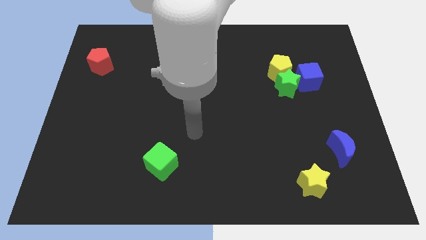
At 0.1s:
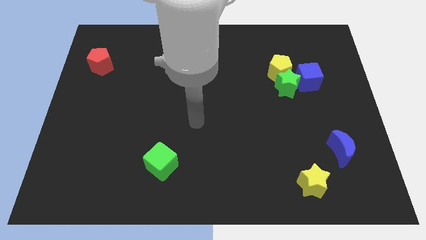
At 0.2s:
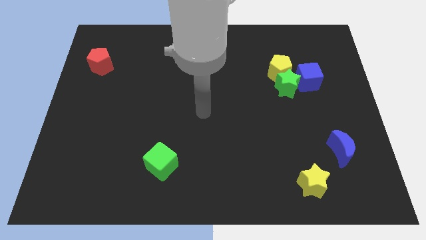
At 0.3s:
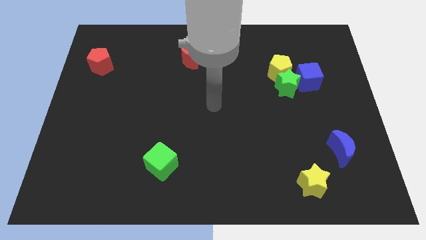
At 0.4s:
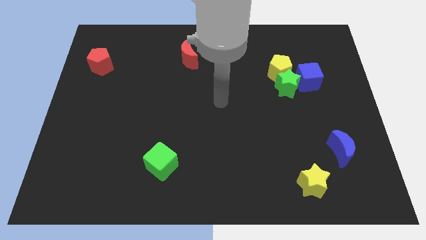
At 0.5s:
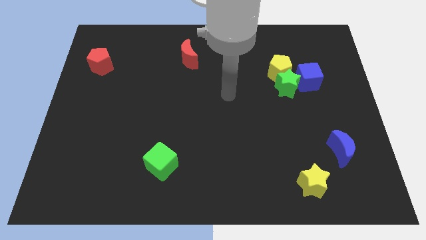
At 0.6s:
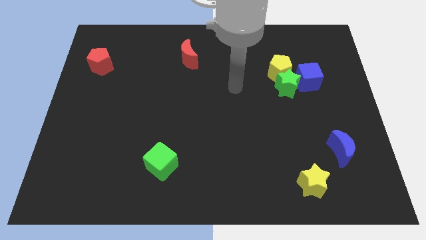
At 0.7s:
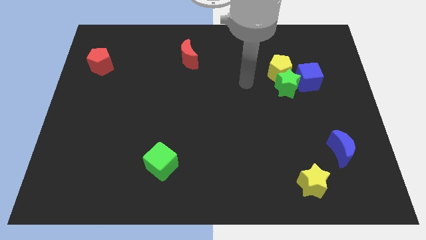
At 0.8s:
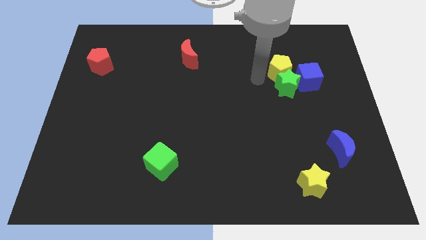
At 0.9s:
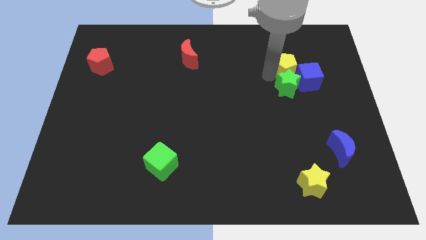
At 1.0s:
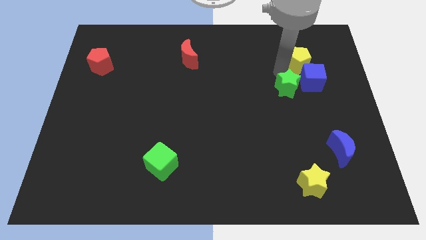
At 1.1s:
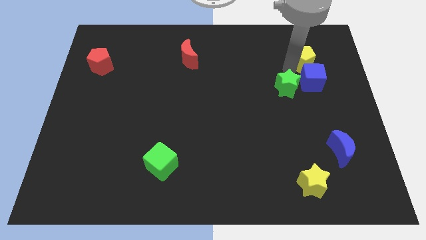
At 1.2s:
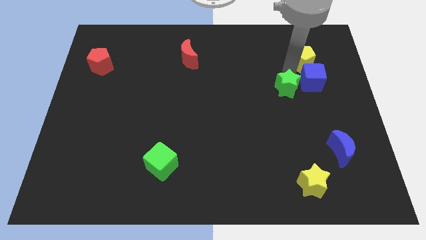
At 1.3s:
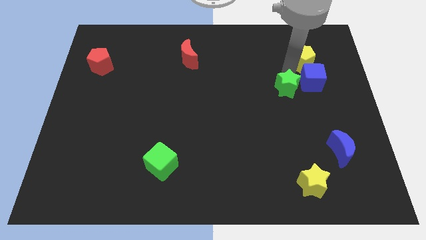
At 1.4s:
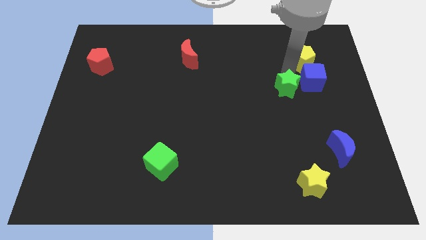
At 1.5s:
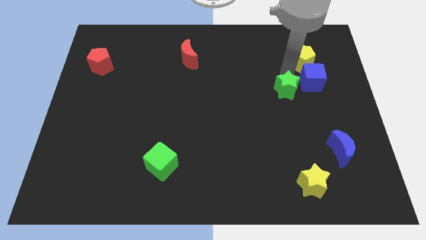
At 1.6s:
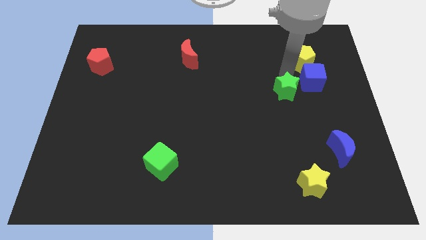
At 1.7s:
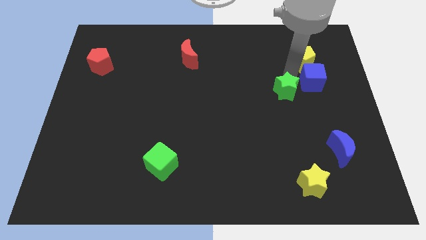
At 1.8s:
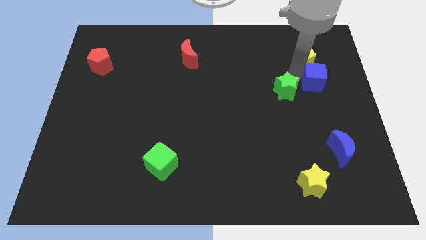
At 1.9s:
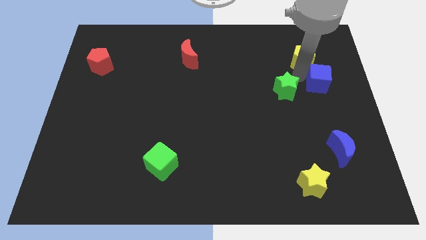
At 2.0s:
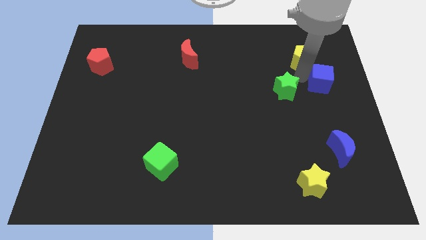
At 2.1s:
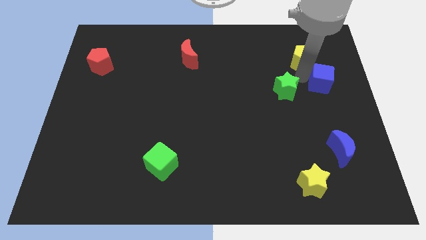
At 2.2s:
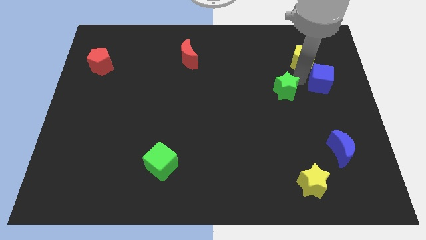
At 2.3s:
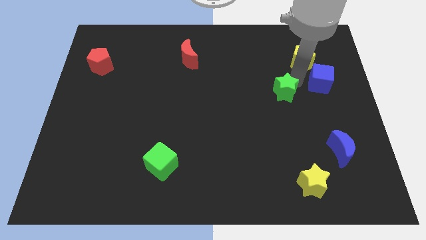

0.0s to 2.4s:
pull the green star apart from the yellow pentagon and blue cube

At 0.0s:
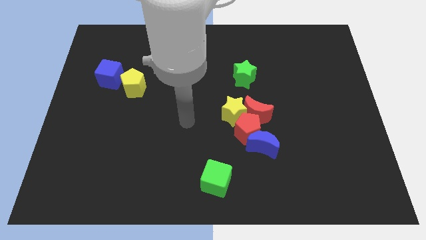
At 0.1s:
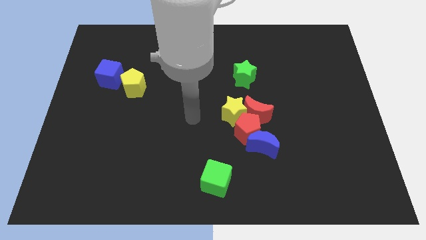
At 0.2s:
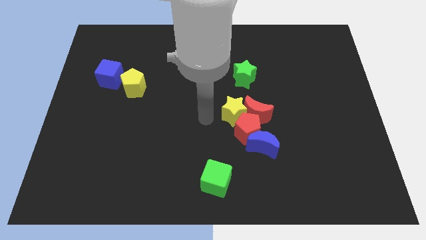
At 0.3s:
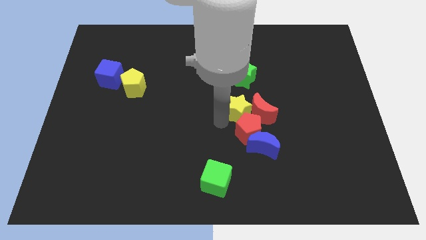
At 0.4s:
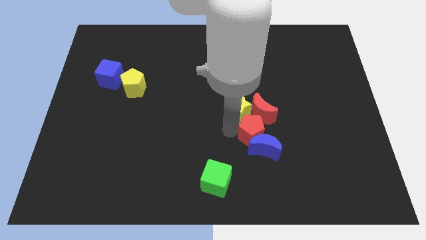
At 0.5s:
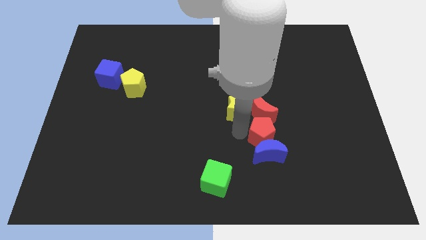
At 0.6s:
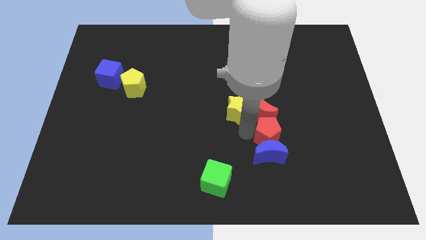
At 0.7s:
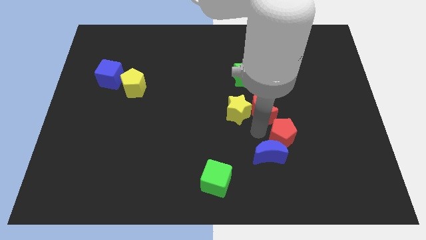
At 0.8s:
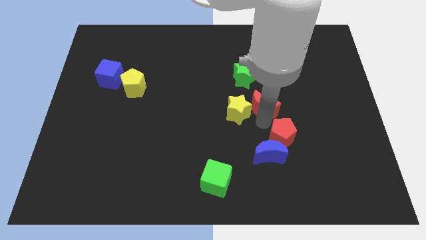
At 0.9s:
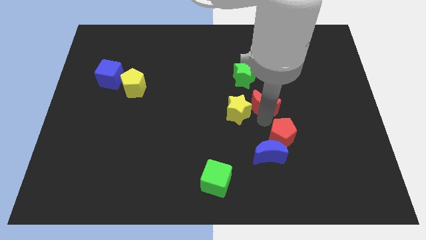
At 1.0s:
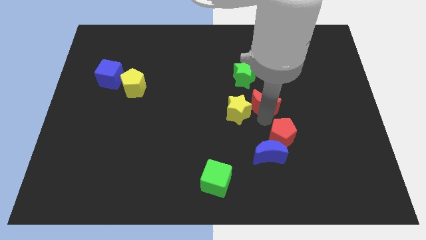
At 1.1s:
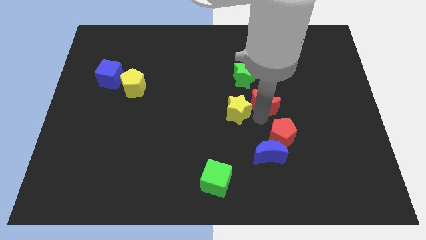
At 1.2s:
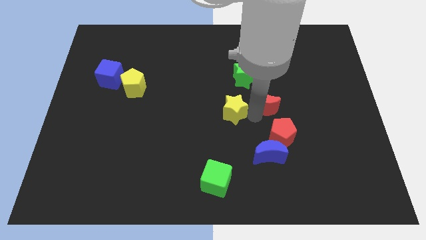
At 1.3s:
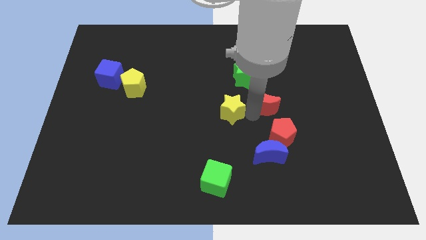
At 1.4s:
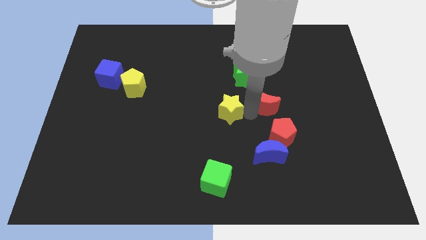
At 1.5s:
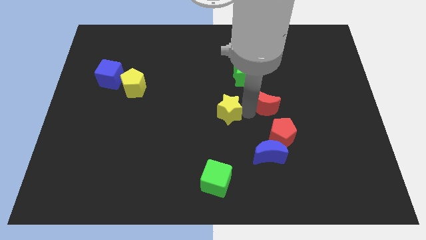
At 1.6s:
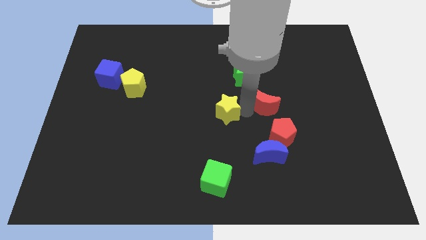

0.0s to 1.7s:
separate the yellow star from the red moon and red pentagon

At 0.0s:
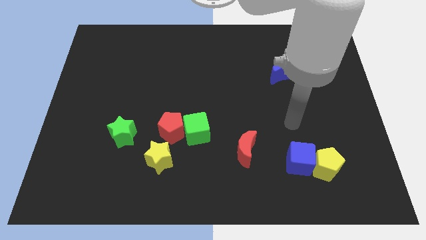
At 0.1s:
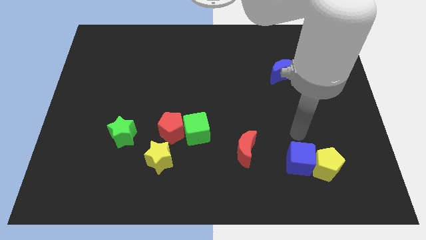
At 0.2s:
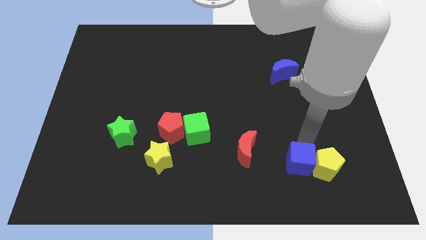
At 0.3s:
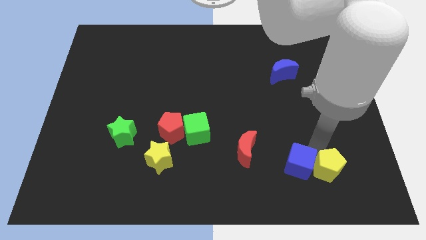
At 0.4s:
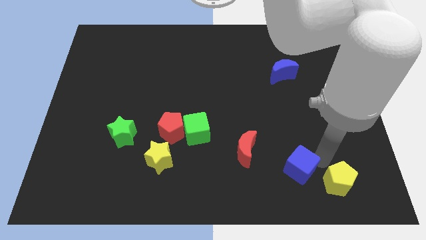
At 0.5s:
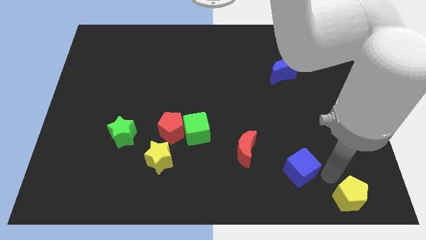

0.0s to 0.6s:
pull the blue cube apart from the yellow pentagon

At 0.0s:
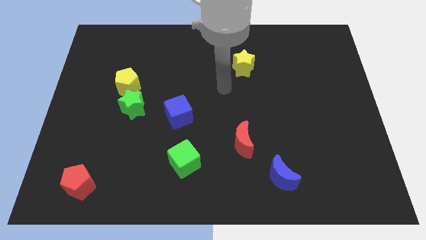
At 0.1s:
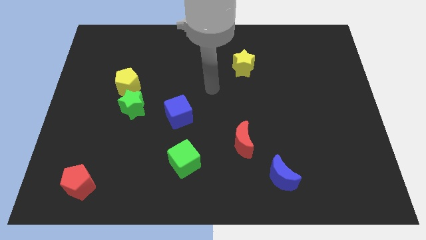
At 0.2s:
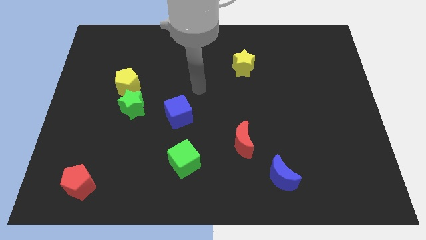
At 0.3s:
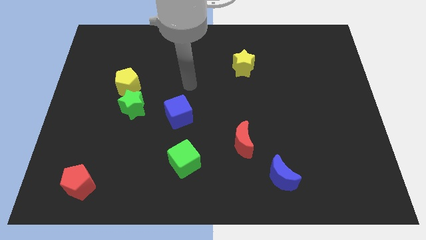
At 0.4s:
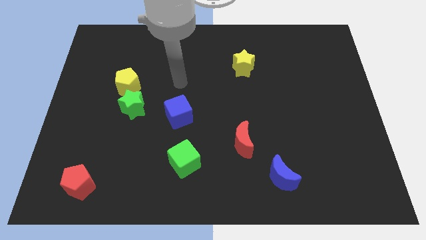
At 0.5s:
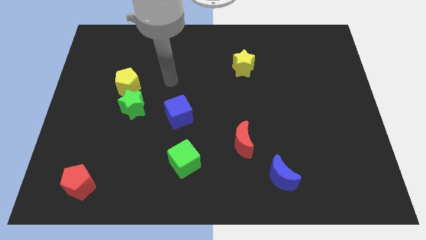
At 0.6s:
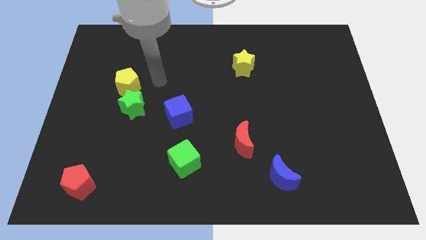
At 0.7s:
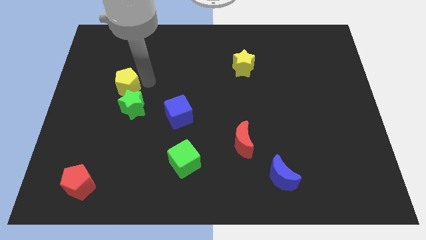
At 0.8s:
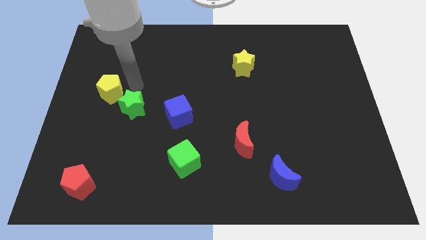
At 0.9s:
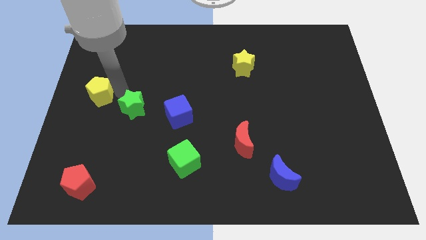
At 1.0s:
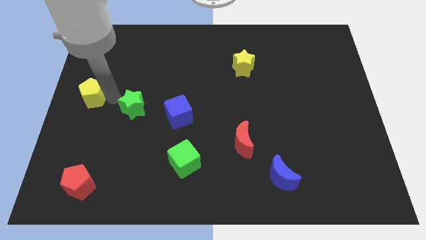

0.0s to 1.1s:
separate the green star from the yellow pentagon

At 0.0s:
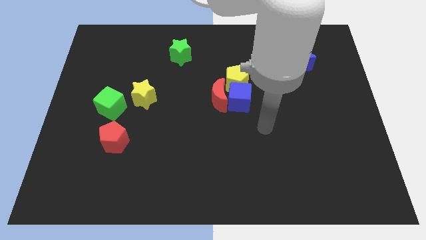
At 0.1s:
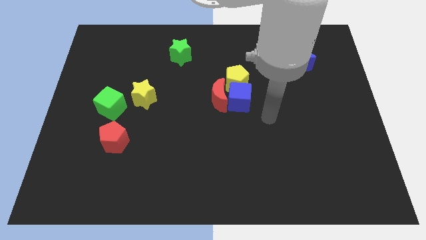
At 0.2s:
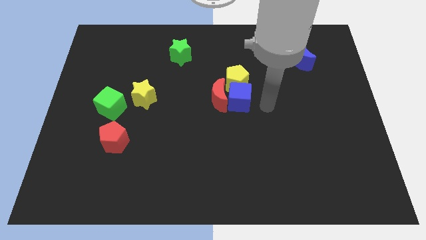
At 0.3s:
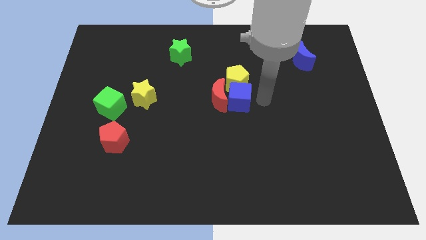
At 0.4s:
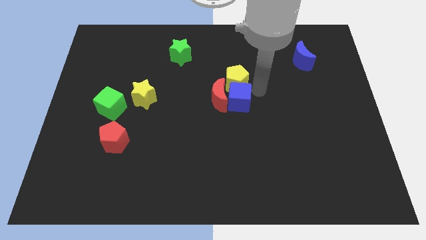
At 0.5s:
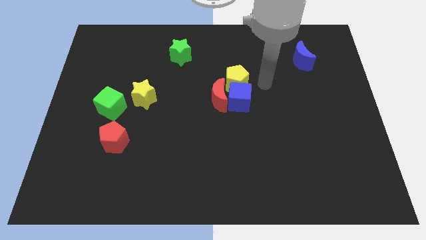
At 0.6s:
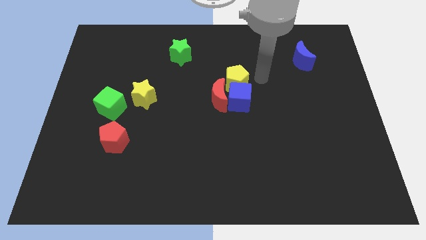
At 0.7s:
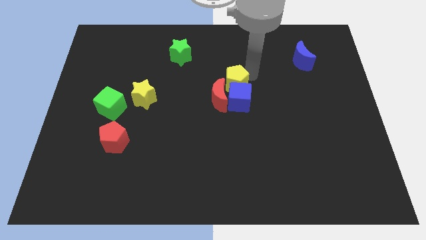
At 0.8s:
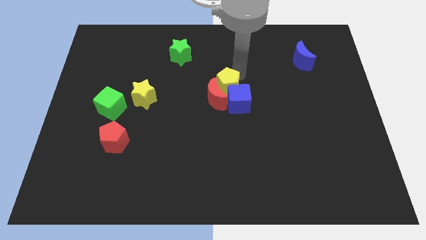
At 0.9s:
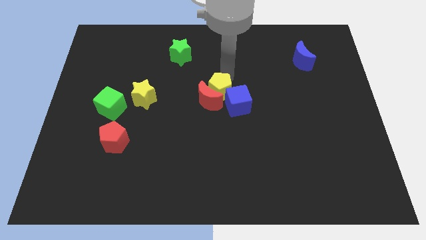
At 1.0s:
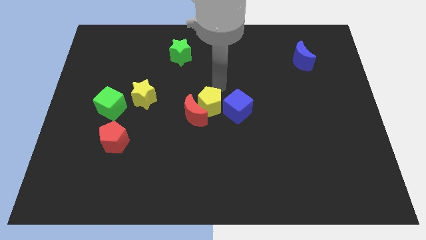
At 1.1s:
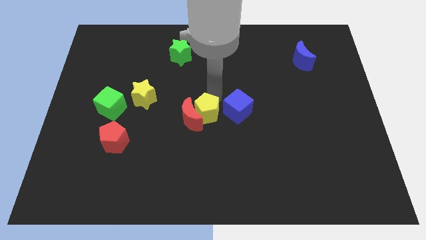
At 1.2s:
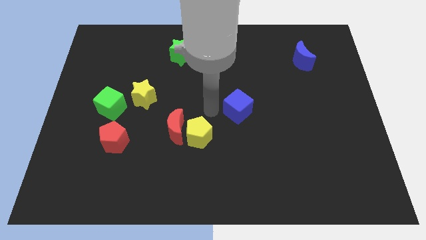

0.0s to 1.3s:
separate the blue cube from the red moon and yellow pentagon

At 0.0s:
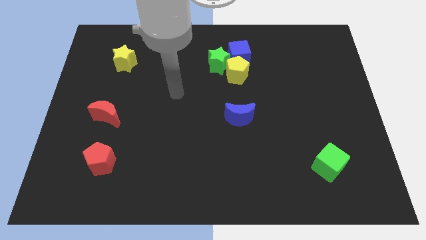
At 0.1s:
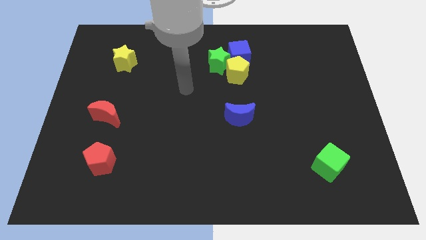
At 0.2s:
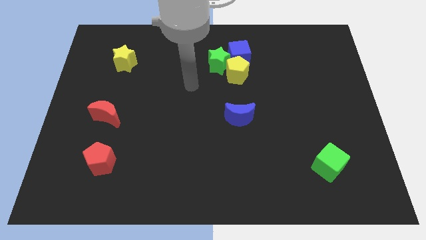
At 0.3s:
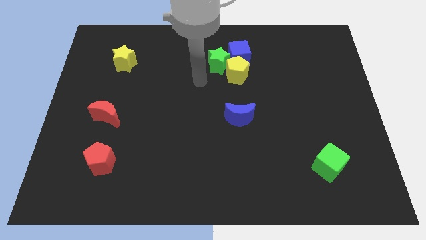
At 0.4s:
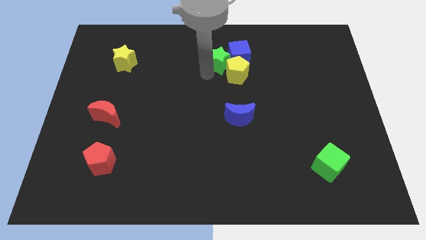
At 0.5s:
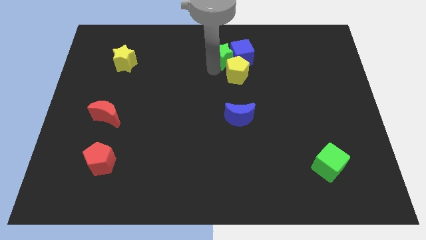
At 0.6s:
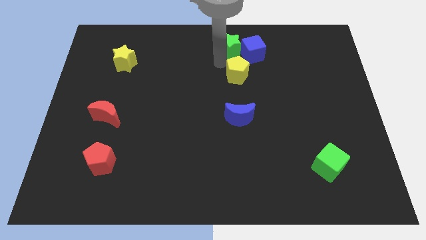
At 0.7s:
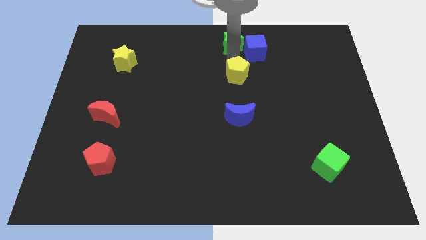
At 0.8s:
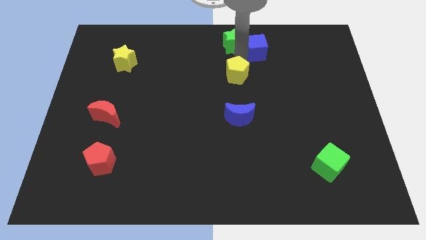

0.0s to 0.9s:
move the yellow pentagon away from the green star and blue cube

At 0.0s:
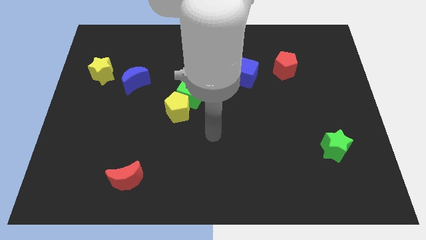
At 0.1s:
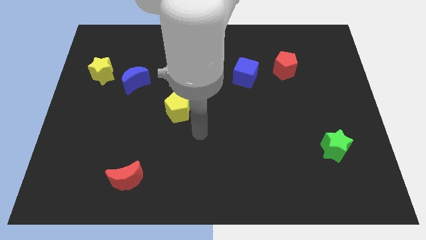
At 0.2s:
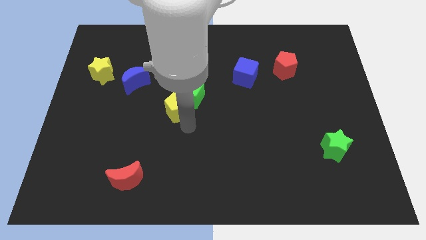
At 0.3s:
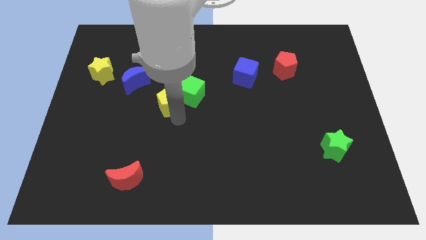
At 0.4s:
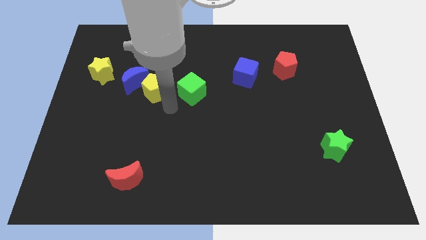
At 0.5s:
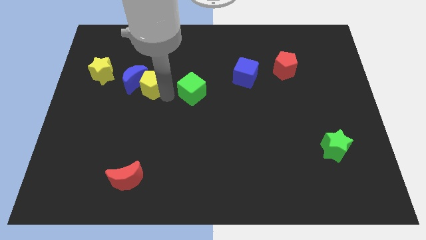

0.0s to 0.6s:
move the green cube away from the yellow pentagon

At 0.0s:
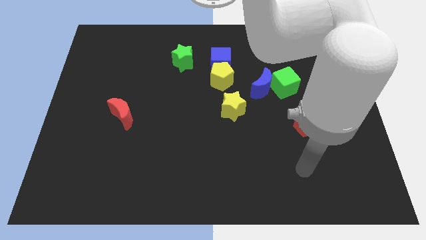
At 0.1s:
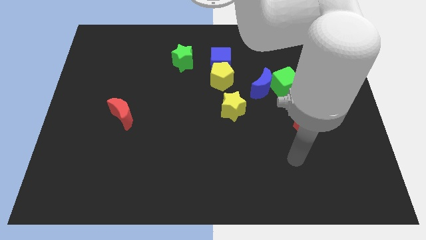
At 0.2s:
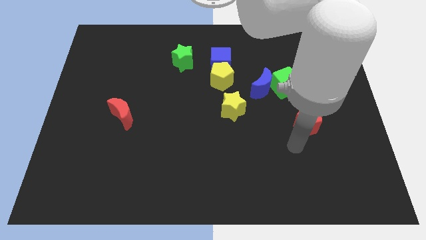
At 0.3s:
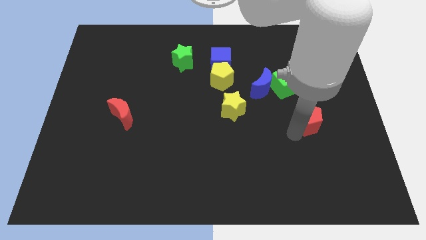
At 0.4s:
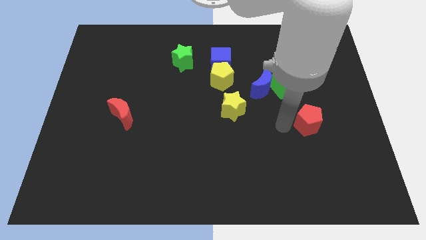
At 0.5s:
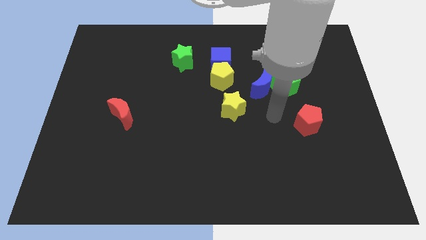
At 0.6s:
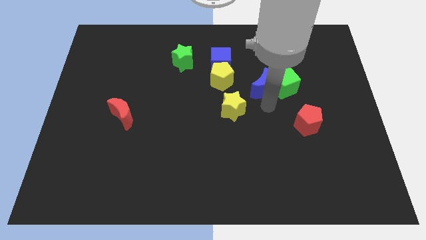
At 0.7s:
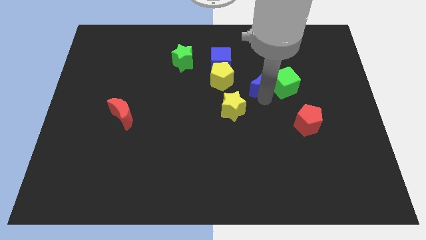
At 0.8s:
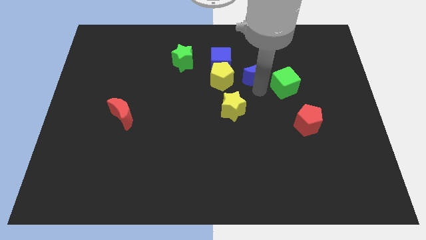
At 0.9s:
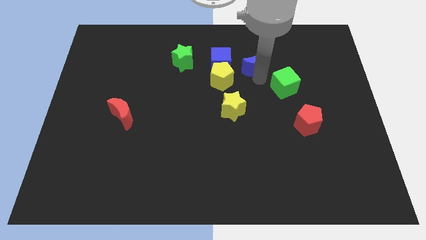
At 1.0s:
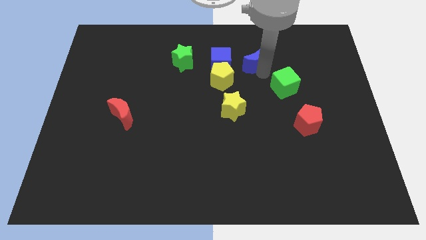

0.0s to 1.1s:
pull the green cube apart from the blue moon
